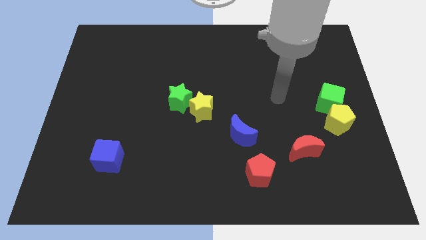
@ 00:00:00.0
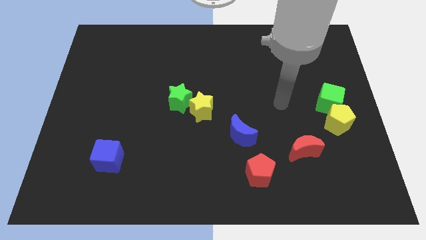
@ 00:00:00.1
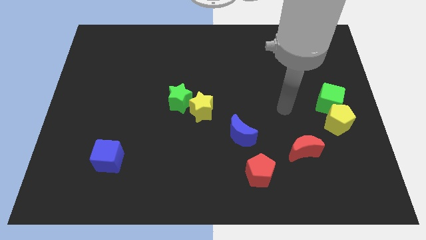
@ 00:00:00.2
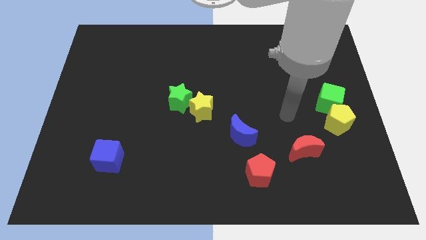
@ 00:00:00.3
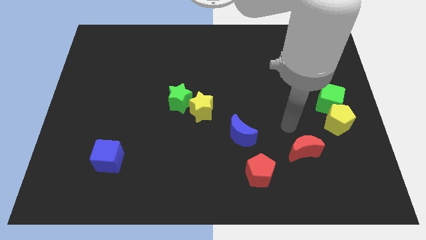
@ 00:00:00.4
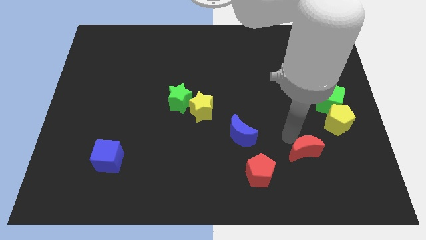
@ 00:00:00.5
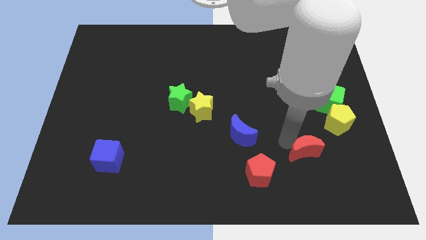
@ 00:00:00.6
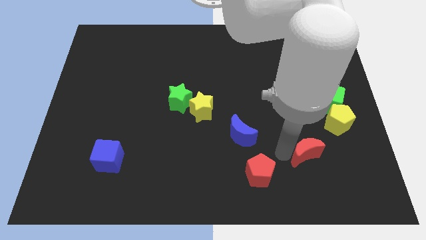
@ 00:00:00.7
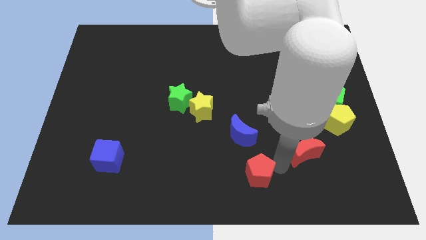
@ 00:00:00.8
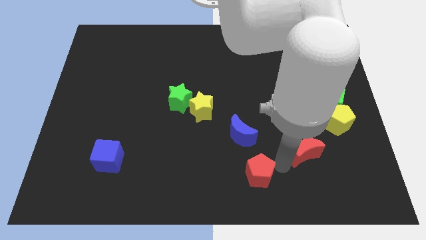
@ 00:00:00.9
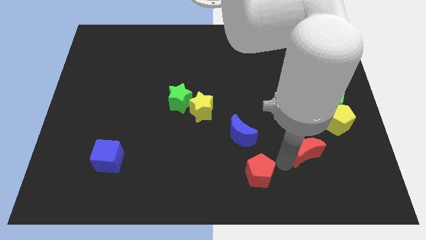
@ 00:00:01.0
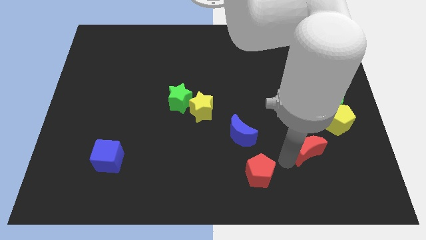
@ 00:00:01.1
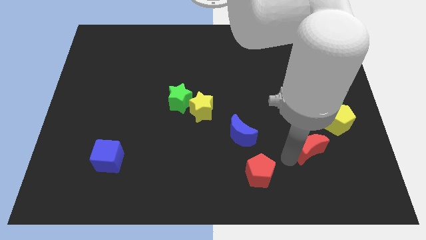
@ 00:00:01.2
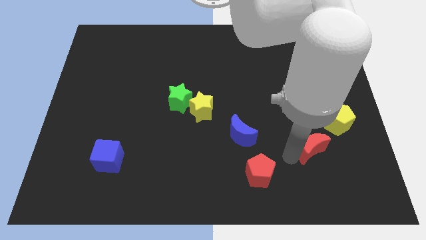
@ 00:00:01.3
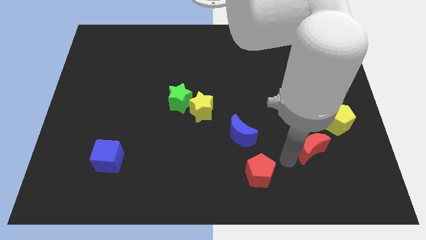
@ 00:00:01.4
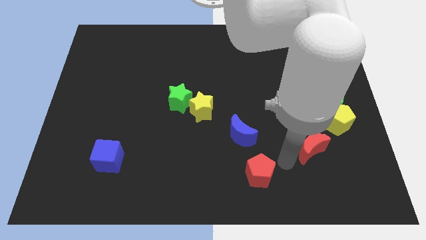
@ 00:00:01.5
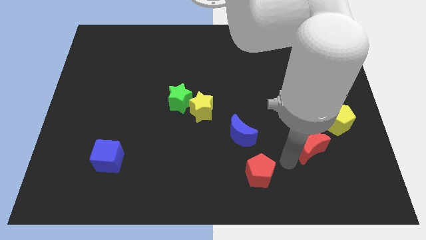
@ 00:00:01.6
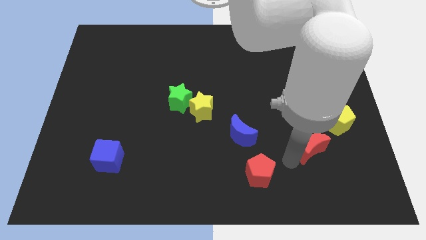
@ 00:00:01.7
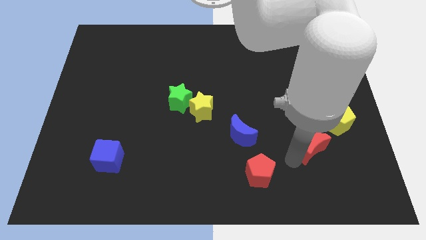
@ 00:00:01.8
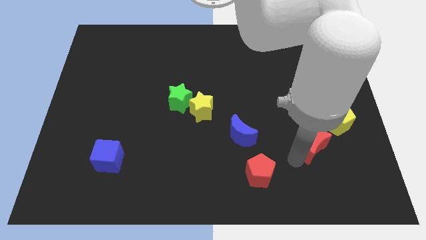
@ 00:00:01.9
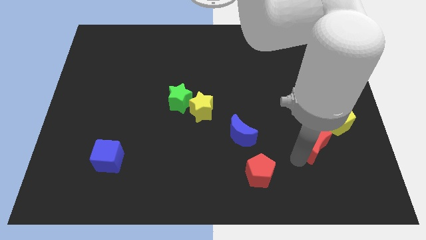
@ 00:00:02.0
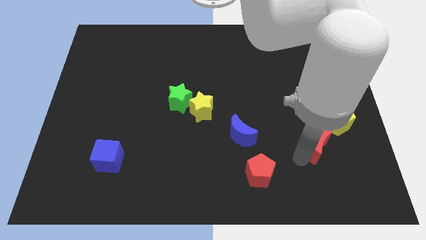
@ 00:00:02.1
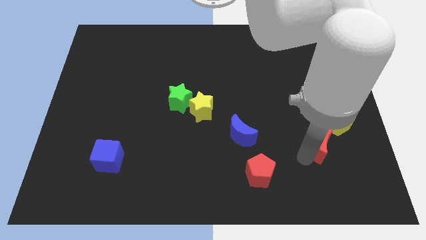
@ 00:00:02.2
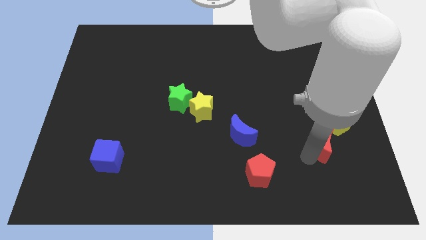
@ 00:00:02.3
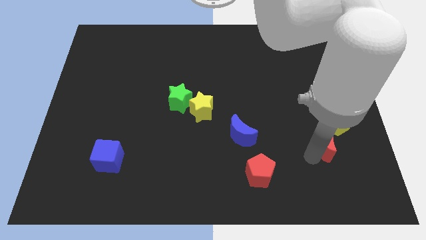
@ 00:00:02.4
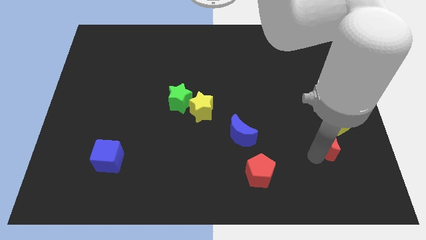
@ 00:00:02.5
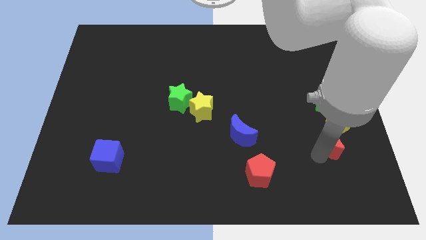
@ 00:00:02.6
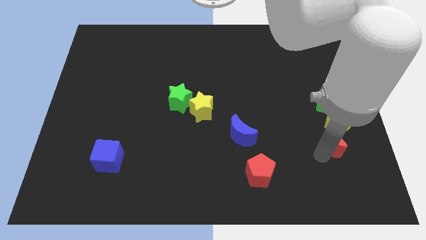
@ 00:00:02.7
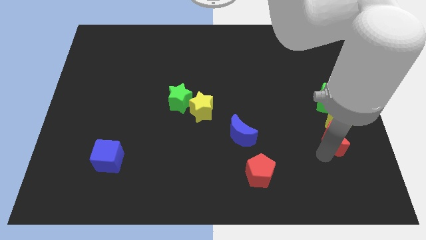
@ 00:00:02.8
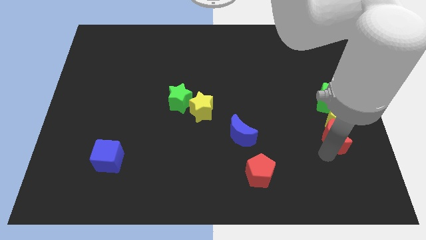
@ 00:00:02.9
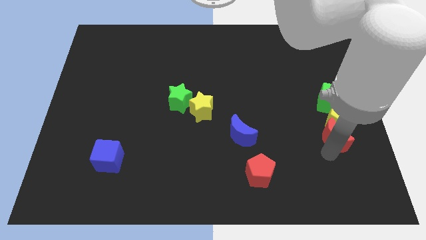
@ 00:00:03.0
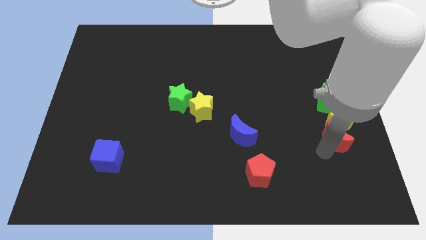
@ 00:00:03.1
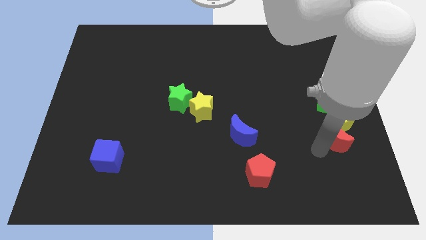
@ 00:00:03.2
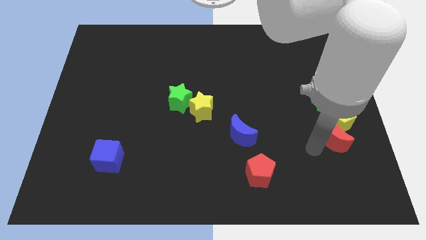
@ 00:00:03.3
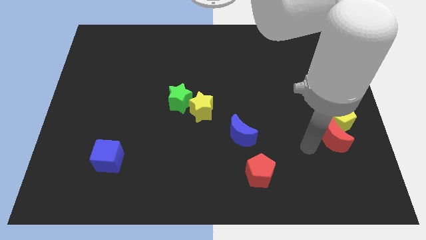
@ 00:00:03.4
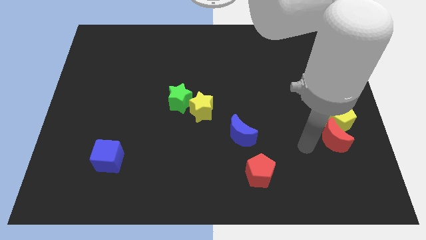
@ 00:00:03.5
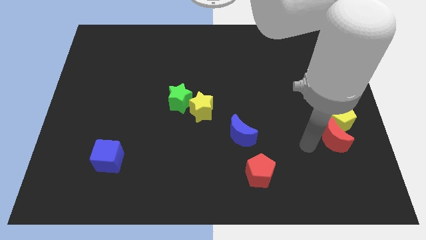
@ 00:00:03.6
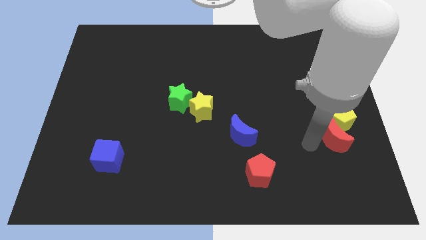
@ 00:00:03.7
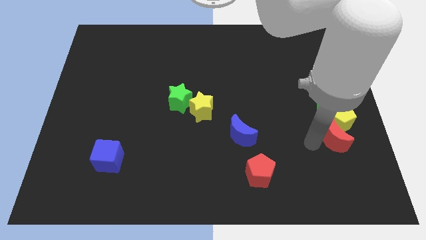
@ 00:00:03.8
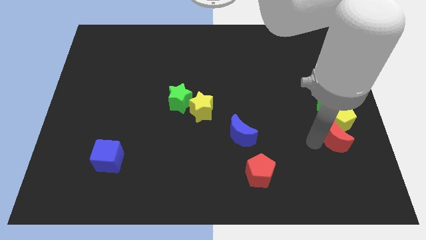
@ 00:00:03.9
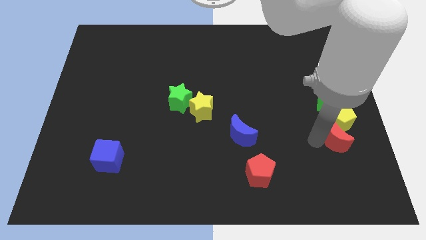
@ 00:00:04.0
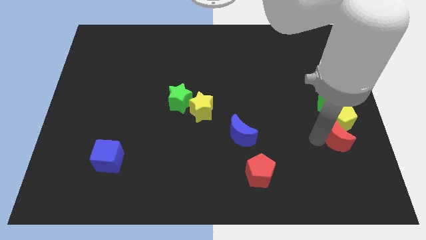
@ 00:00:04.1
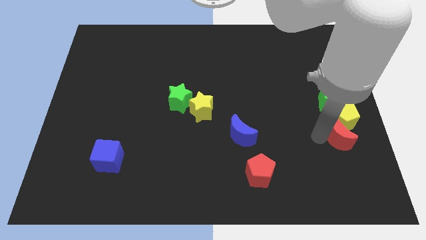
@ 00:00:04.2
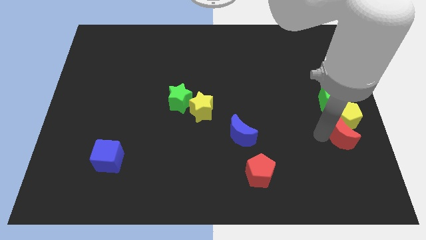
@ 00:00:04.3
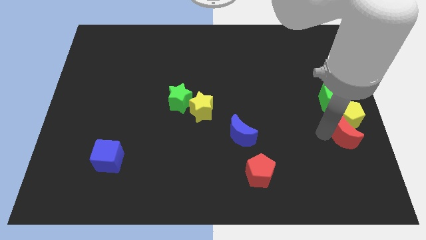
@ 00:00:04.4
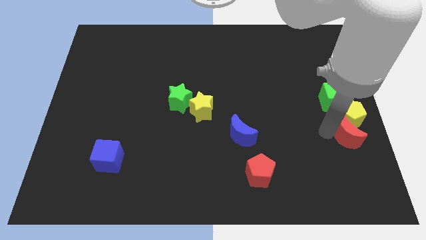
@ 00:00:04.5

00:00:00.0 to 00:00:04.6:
slide the red moon to the center right

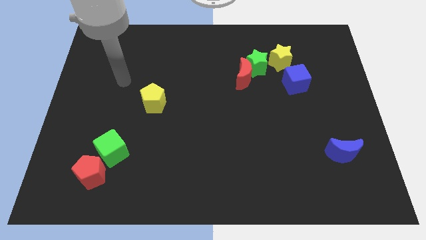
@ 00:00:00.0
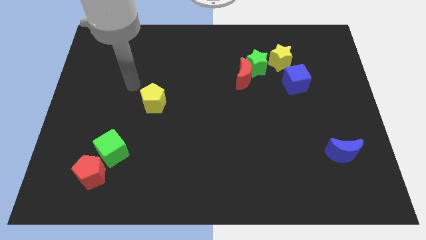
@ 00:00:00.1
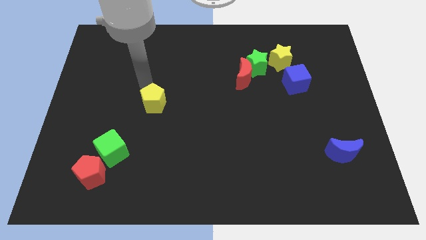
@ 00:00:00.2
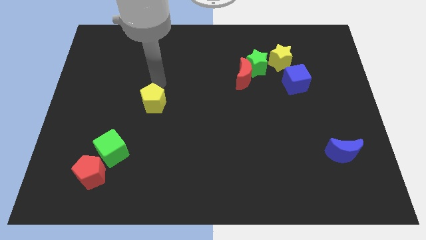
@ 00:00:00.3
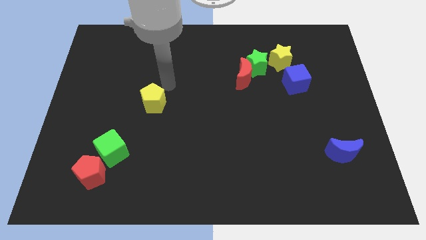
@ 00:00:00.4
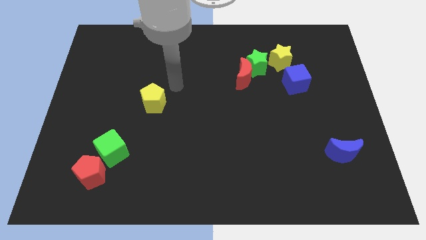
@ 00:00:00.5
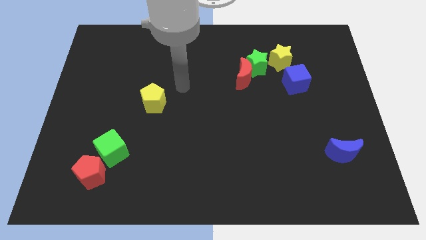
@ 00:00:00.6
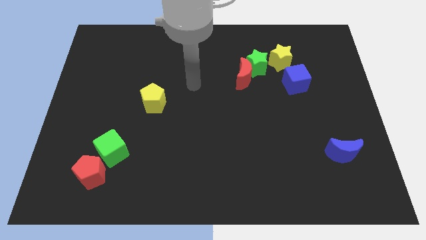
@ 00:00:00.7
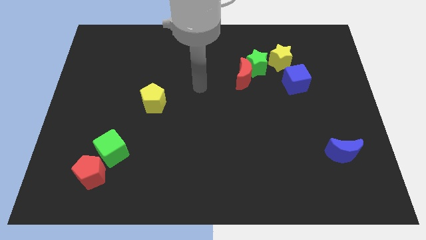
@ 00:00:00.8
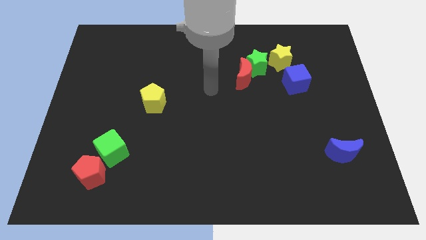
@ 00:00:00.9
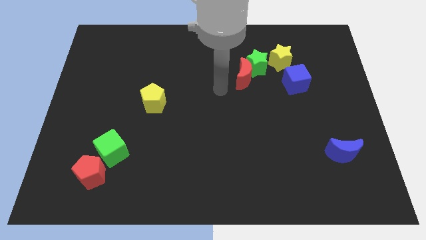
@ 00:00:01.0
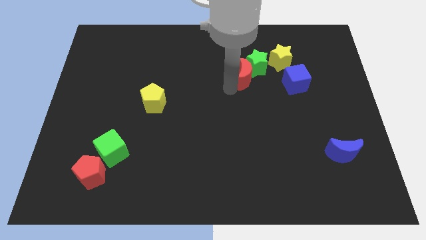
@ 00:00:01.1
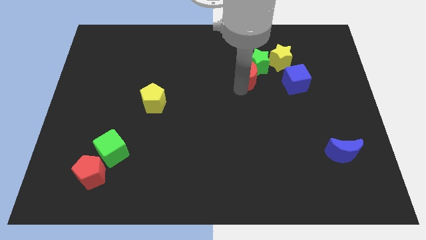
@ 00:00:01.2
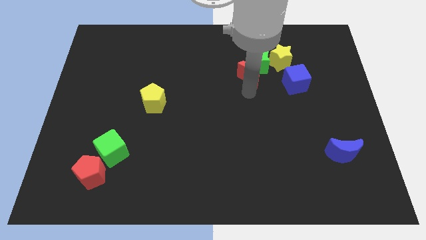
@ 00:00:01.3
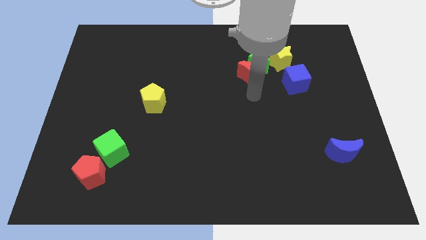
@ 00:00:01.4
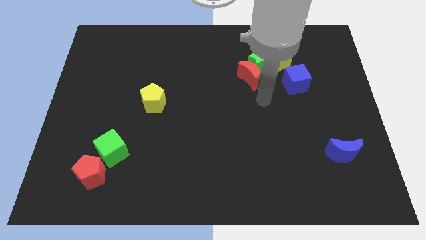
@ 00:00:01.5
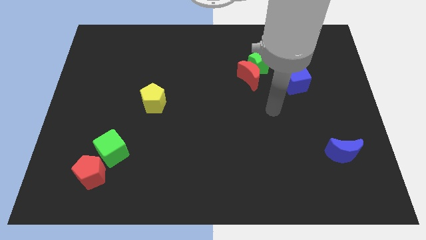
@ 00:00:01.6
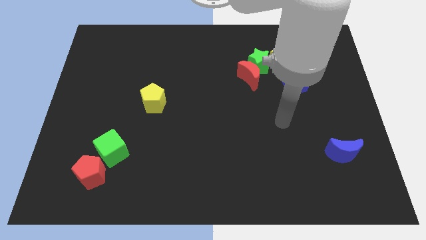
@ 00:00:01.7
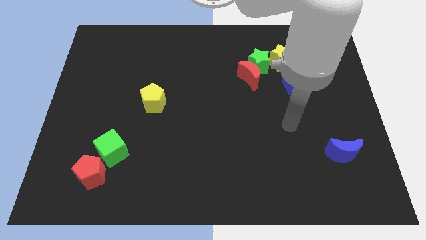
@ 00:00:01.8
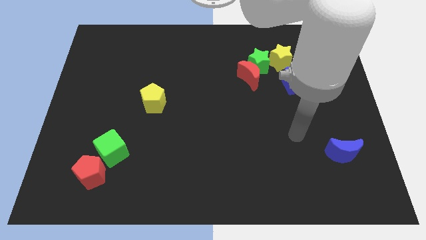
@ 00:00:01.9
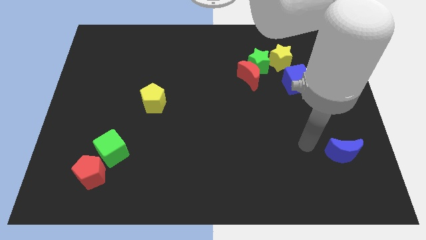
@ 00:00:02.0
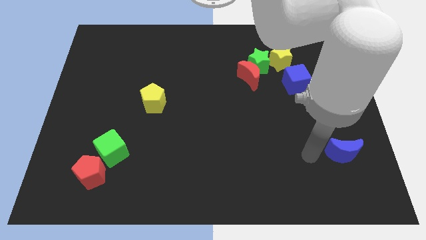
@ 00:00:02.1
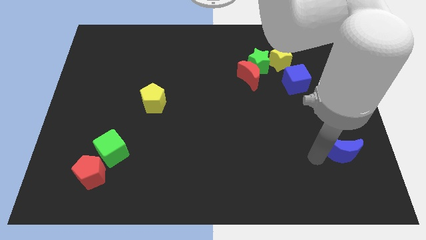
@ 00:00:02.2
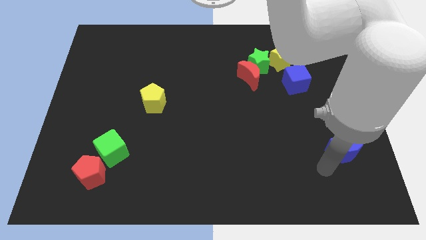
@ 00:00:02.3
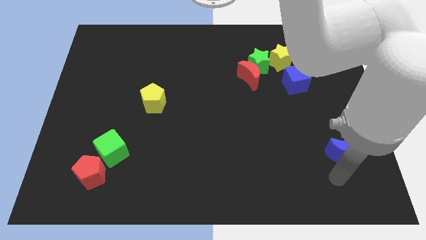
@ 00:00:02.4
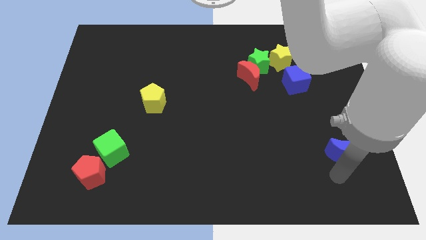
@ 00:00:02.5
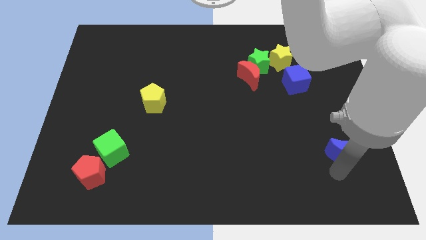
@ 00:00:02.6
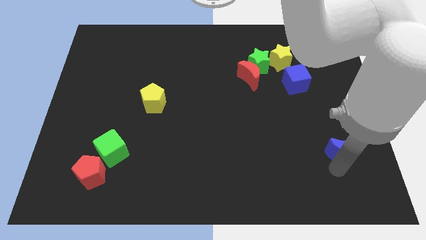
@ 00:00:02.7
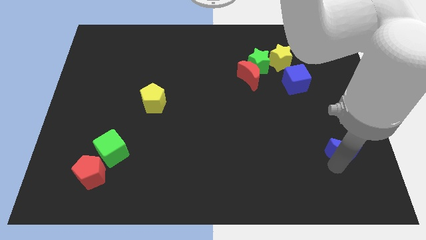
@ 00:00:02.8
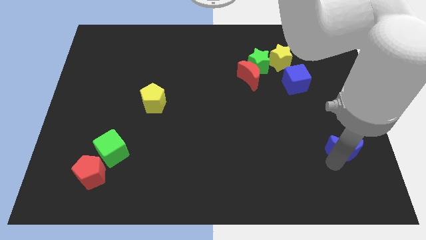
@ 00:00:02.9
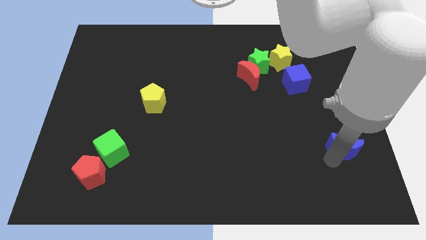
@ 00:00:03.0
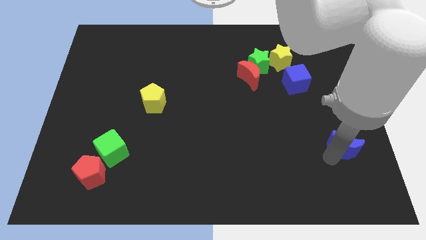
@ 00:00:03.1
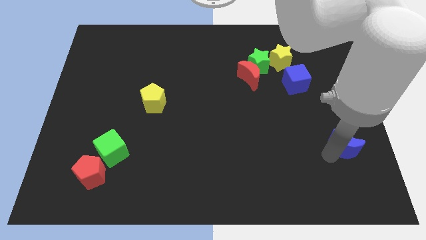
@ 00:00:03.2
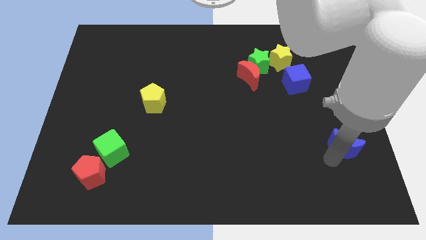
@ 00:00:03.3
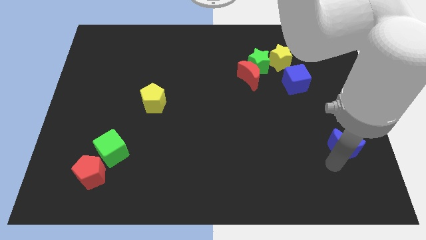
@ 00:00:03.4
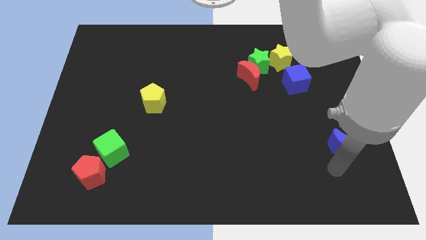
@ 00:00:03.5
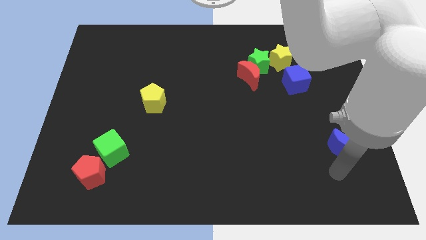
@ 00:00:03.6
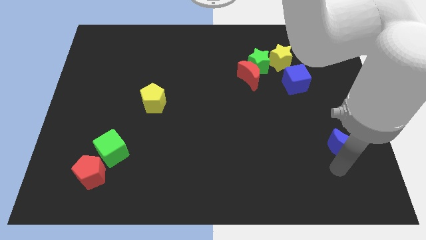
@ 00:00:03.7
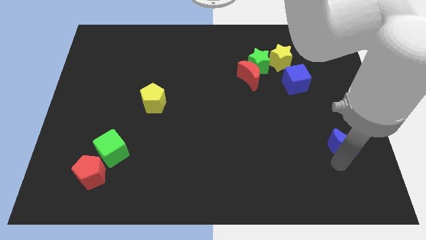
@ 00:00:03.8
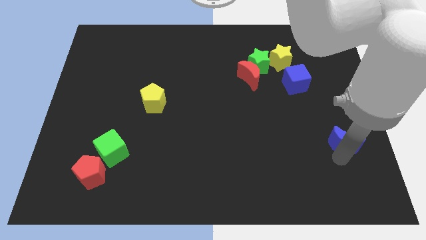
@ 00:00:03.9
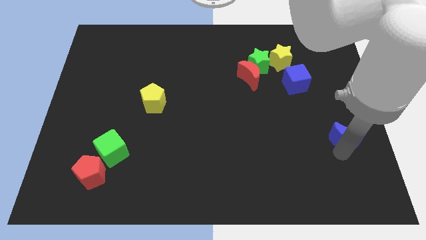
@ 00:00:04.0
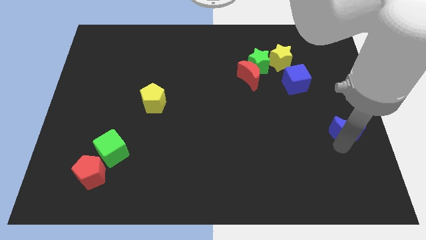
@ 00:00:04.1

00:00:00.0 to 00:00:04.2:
move the blue moon to the right side
